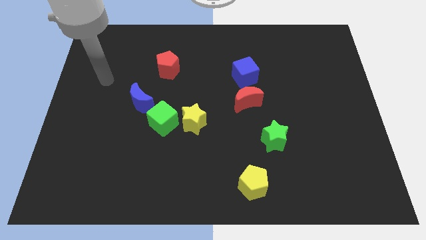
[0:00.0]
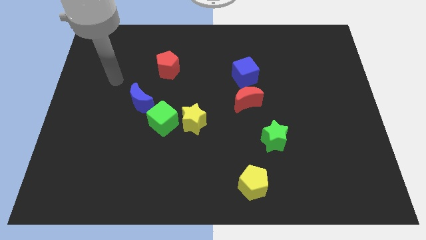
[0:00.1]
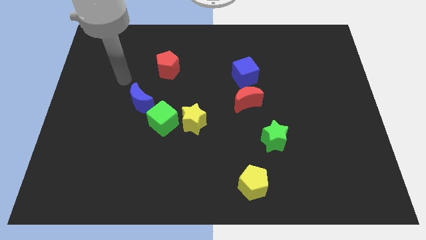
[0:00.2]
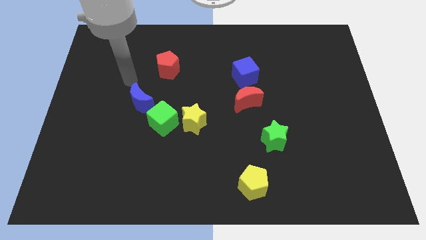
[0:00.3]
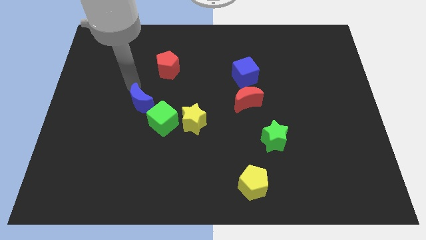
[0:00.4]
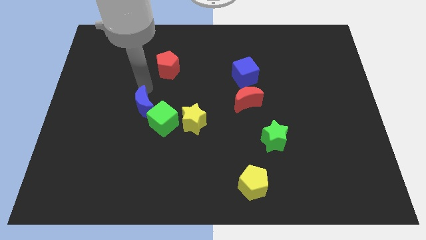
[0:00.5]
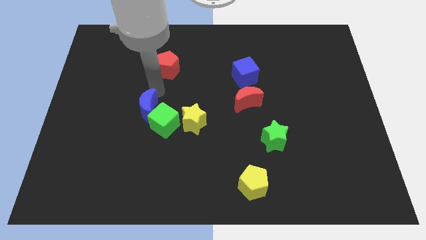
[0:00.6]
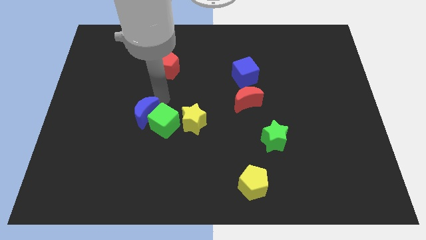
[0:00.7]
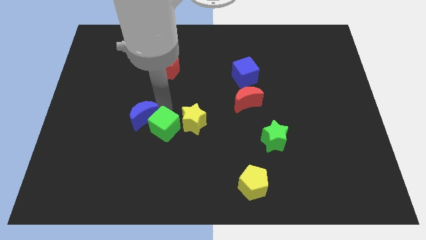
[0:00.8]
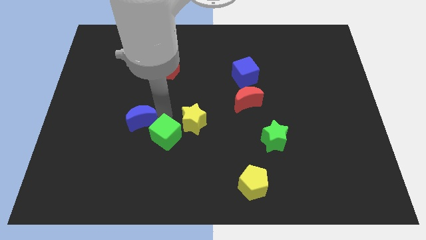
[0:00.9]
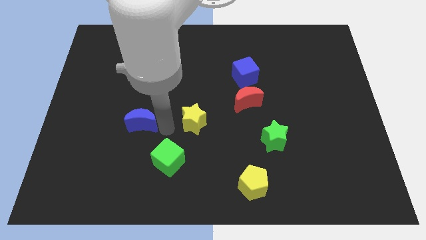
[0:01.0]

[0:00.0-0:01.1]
separate the yellow star from the green cube

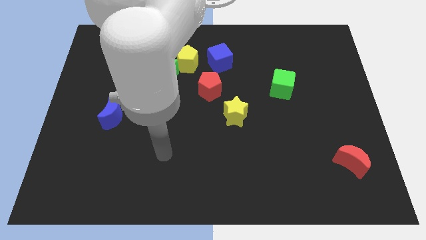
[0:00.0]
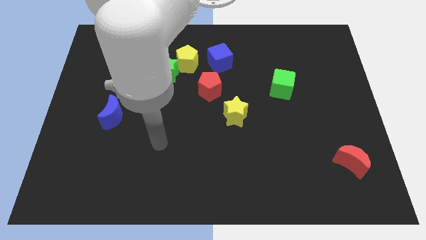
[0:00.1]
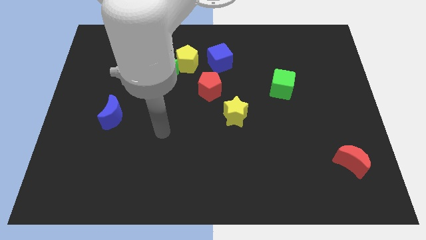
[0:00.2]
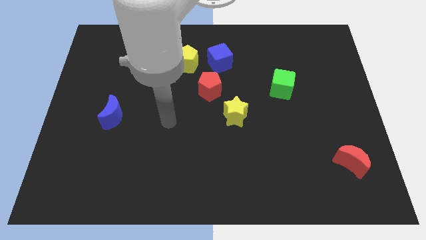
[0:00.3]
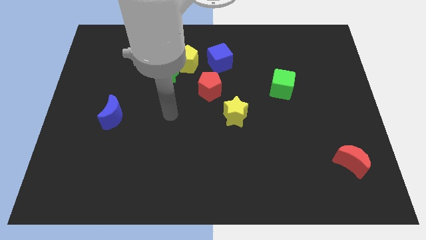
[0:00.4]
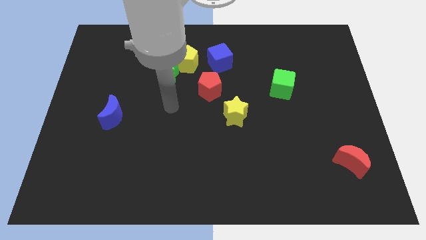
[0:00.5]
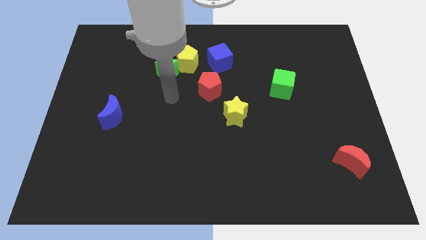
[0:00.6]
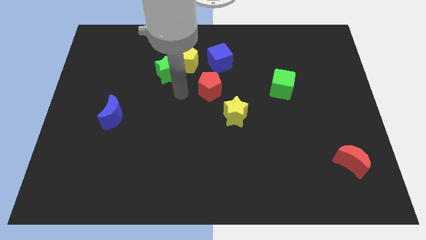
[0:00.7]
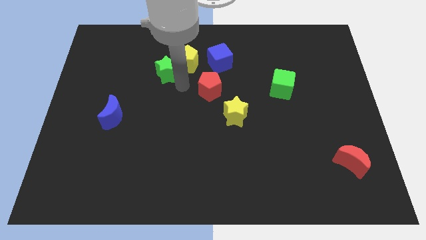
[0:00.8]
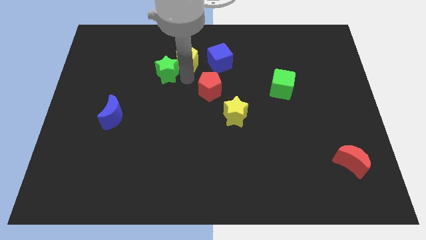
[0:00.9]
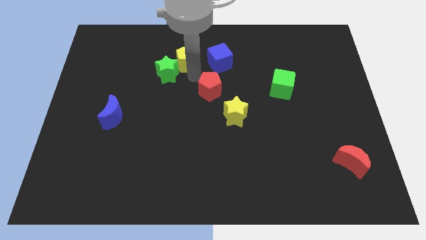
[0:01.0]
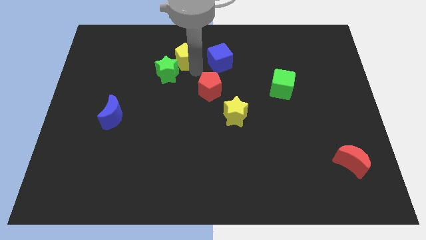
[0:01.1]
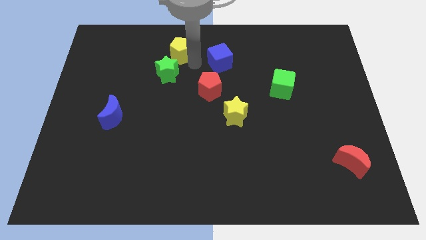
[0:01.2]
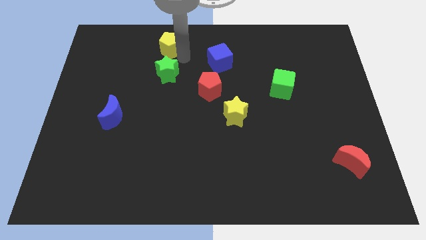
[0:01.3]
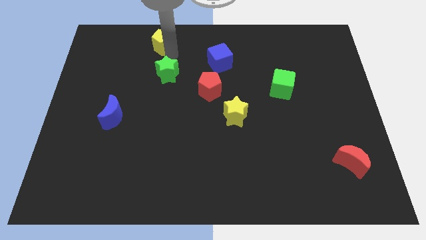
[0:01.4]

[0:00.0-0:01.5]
move the green star away from the yellow pentagon

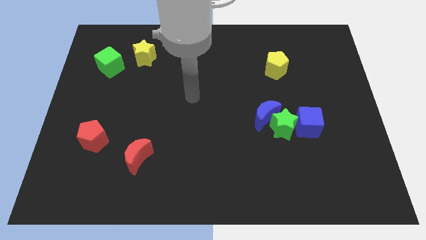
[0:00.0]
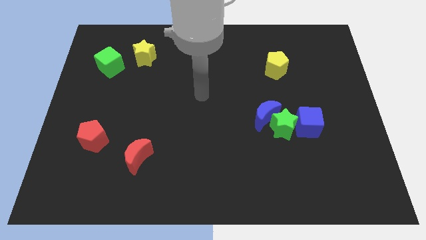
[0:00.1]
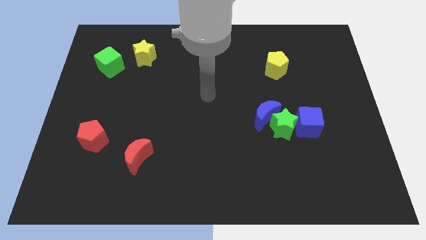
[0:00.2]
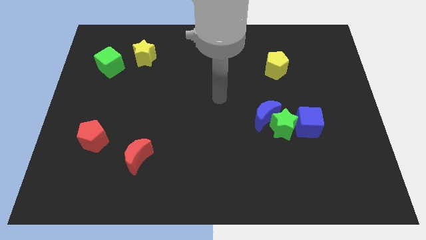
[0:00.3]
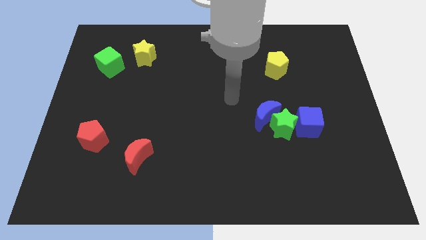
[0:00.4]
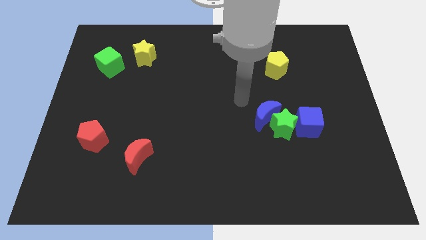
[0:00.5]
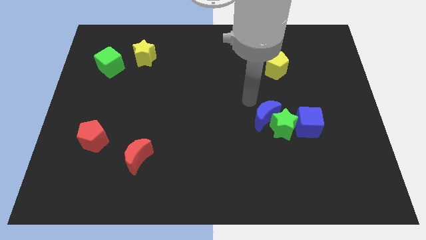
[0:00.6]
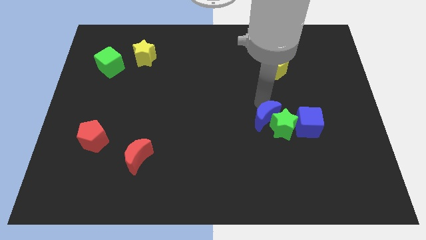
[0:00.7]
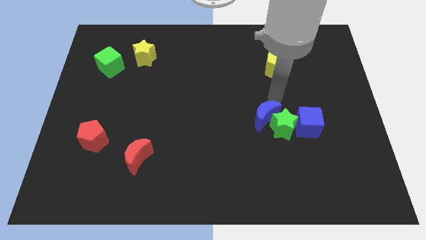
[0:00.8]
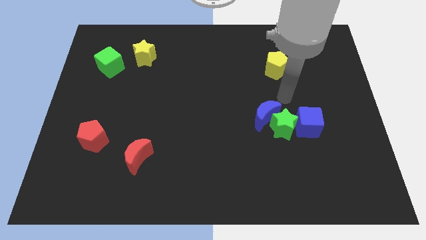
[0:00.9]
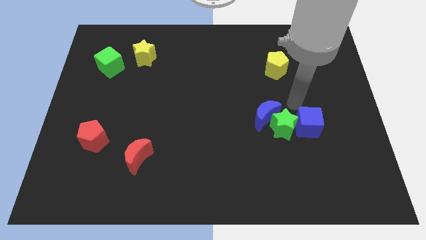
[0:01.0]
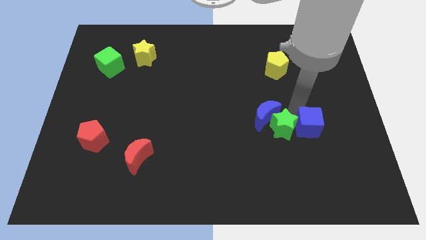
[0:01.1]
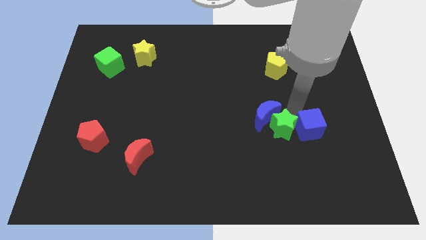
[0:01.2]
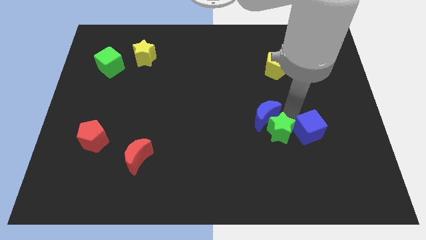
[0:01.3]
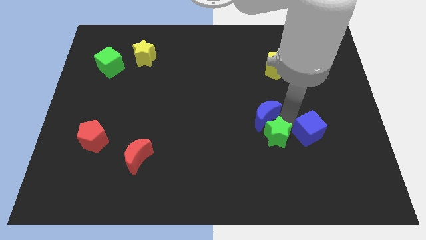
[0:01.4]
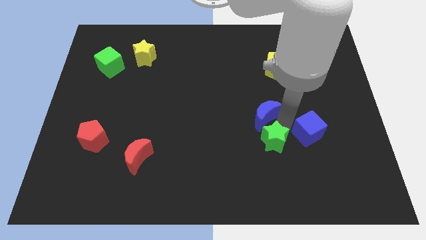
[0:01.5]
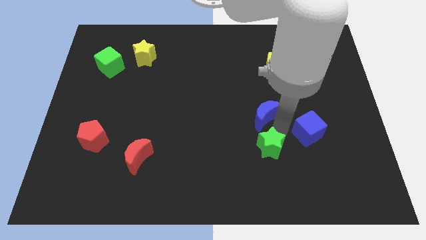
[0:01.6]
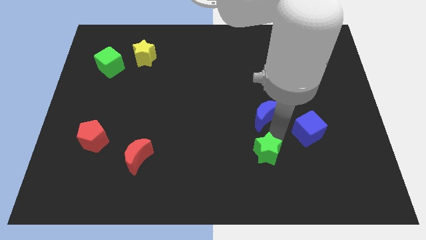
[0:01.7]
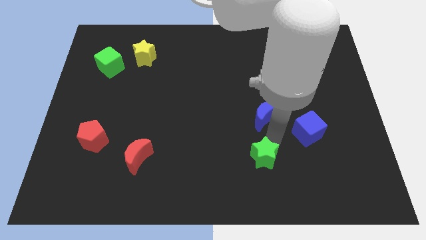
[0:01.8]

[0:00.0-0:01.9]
move the green star away from the blue moon and blue cube

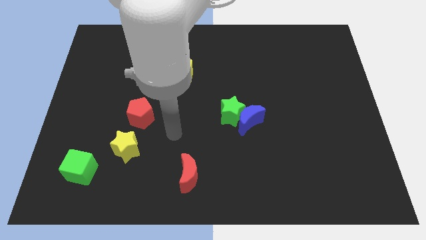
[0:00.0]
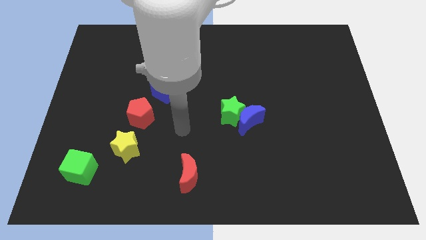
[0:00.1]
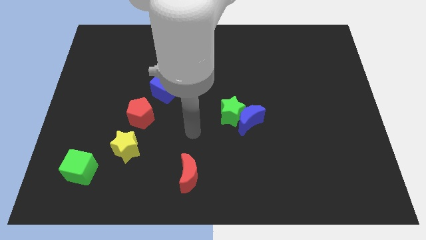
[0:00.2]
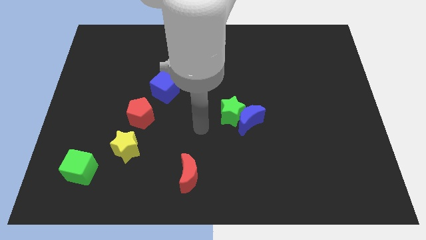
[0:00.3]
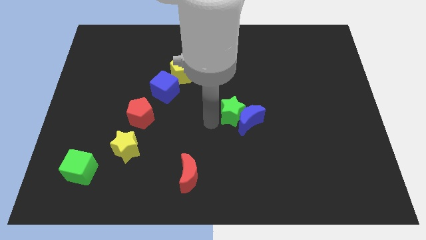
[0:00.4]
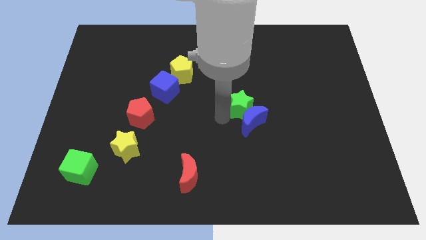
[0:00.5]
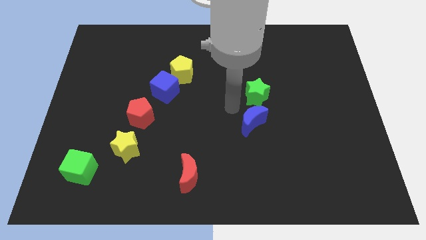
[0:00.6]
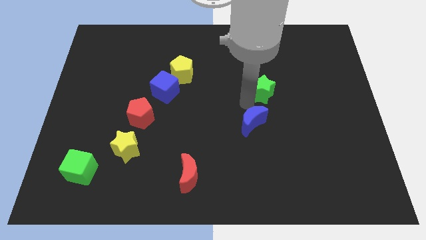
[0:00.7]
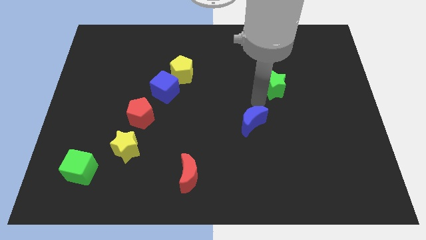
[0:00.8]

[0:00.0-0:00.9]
move the blue moon away from the green star

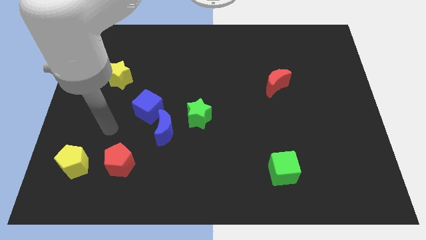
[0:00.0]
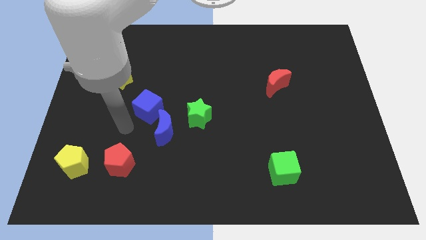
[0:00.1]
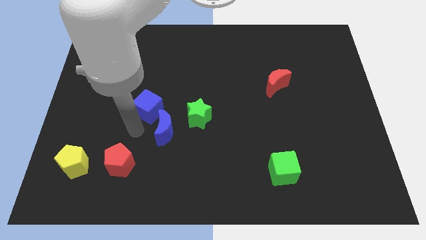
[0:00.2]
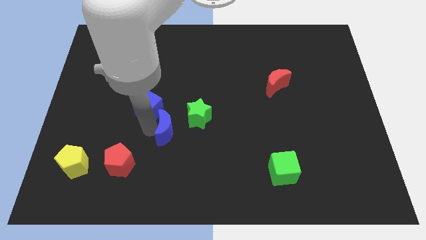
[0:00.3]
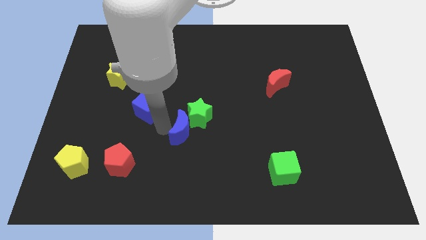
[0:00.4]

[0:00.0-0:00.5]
separate the blue cube from the blue moon

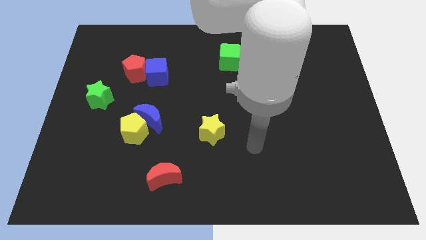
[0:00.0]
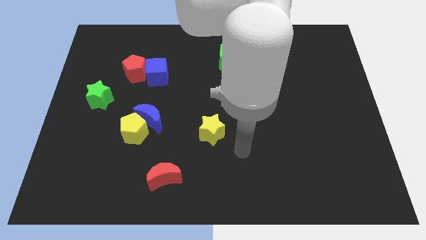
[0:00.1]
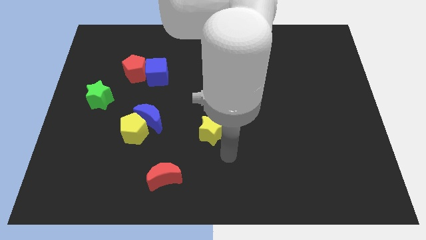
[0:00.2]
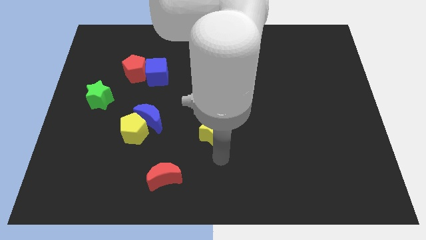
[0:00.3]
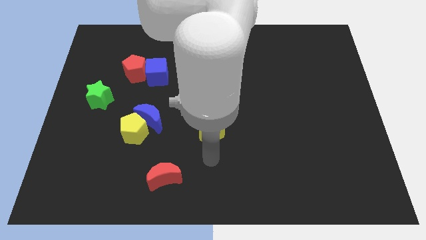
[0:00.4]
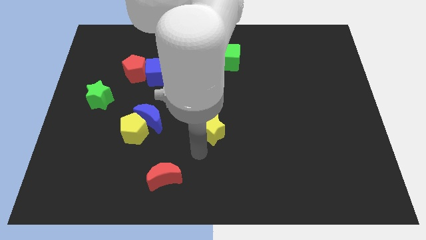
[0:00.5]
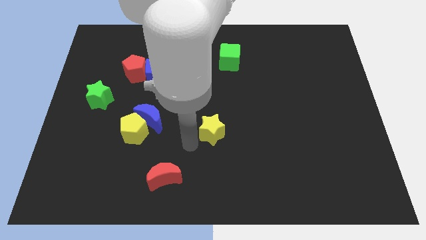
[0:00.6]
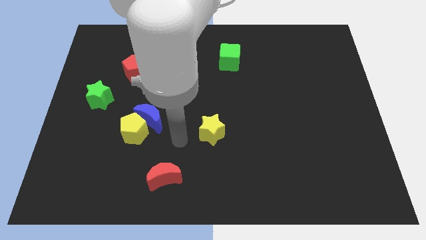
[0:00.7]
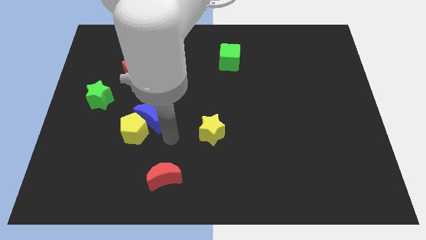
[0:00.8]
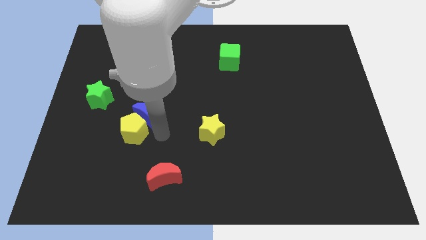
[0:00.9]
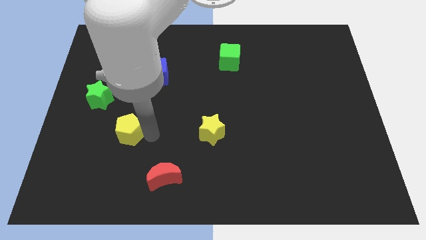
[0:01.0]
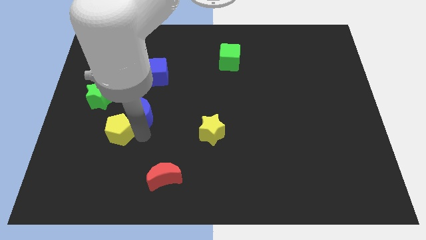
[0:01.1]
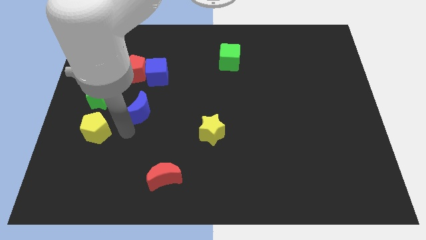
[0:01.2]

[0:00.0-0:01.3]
pull the blue moon apart from the yellow pentagon

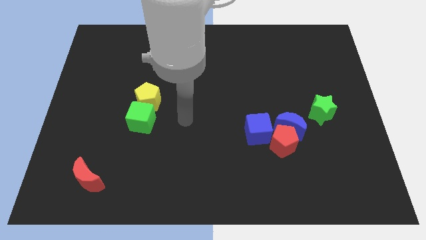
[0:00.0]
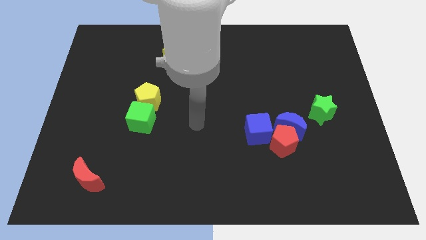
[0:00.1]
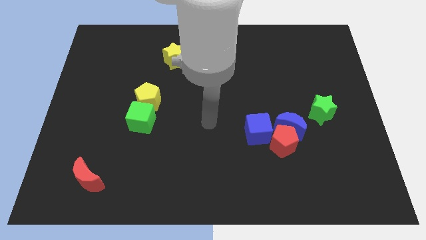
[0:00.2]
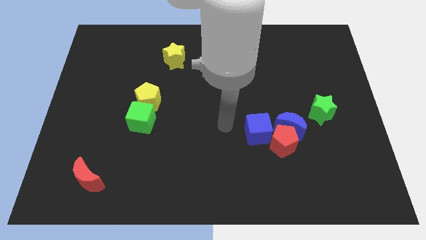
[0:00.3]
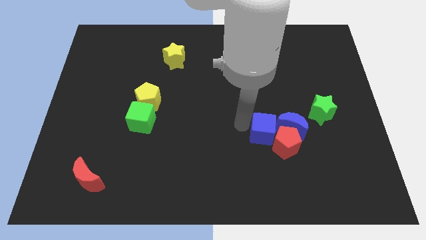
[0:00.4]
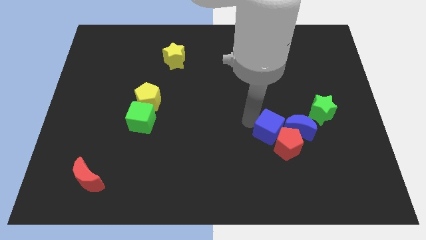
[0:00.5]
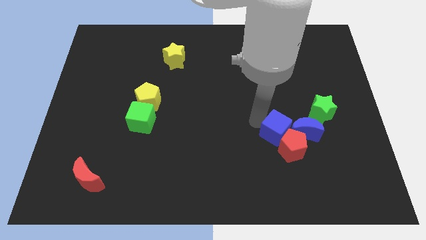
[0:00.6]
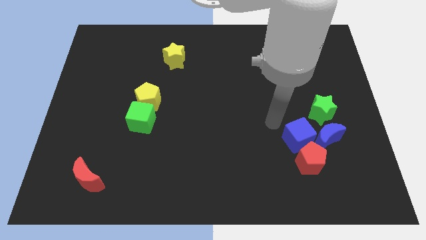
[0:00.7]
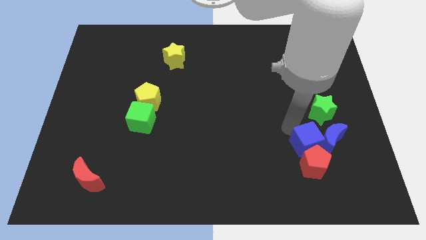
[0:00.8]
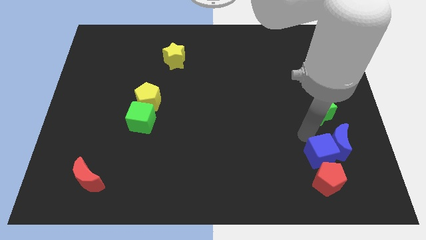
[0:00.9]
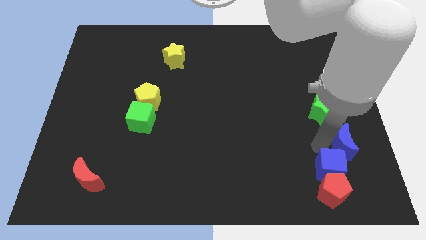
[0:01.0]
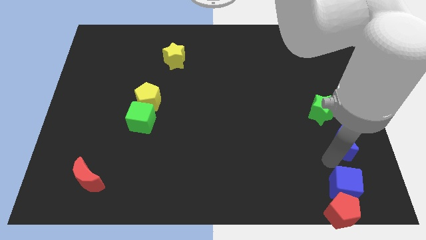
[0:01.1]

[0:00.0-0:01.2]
move the red pentagon away from the blue moon and blue cube

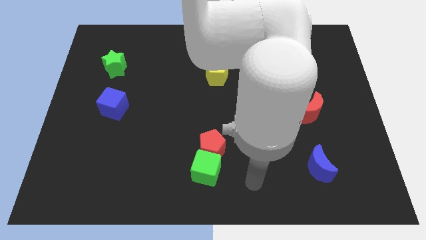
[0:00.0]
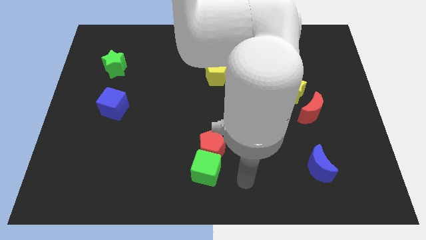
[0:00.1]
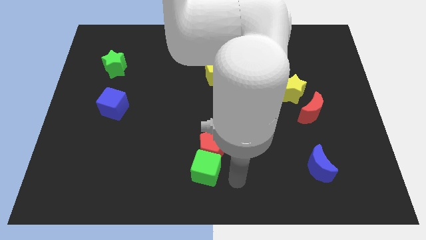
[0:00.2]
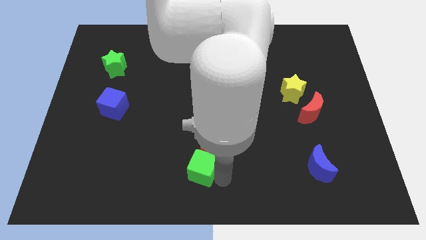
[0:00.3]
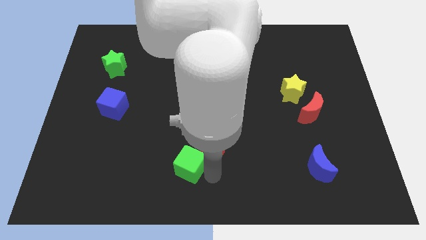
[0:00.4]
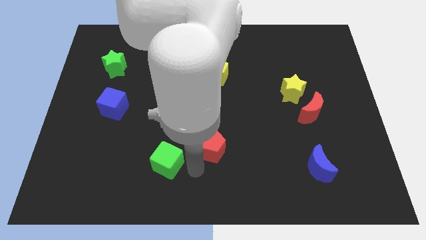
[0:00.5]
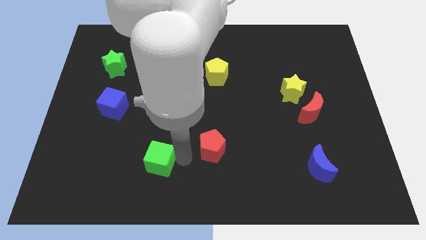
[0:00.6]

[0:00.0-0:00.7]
move the red pentagon away from the green cube
